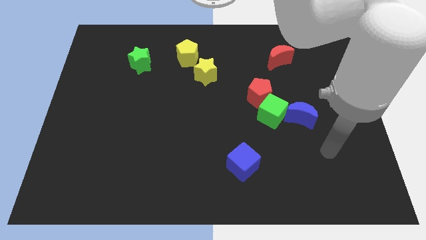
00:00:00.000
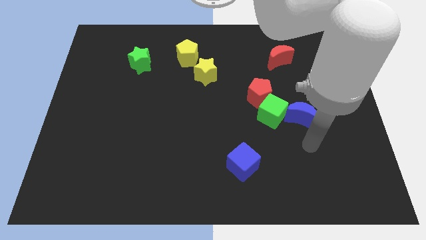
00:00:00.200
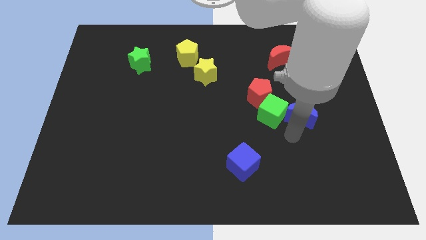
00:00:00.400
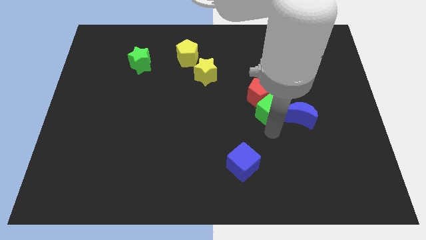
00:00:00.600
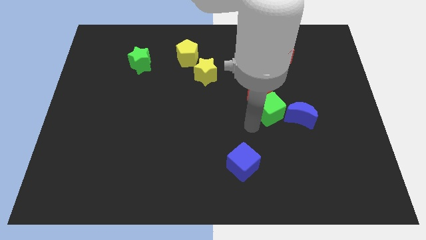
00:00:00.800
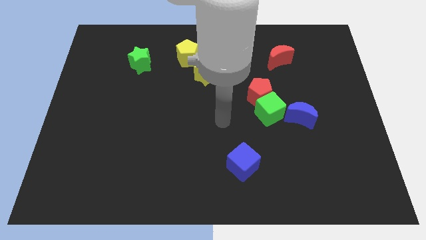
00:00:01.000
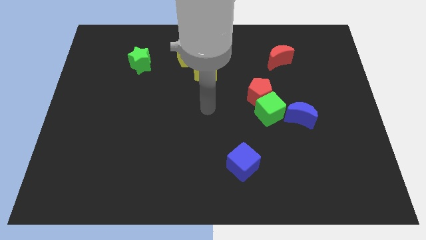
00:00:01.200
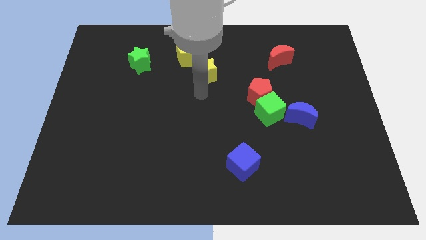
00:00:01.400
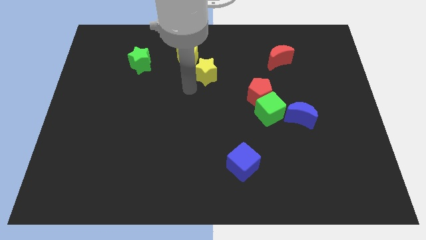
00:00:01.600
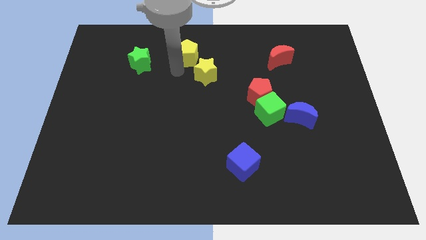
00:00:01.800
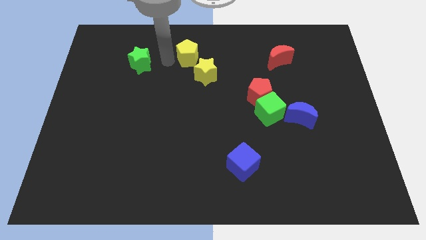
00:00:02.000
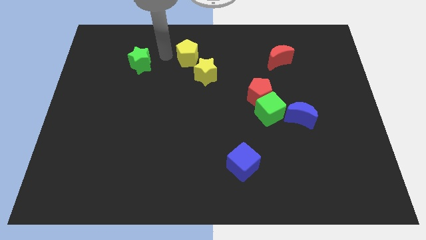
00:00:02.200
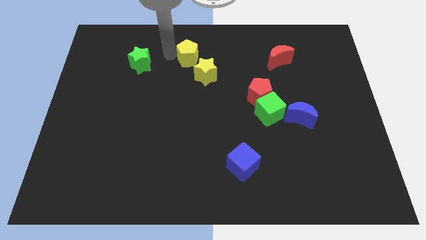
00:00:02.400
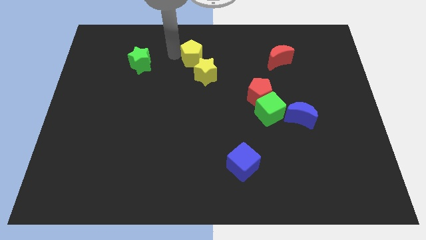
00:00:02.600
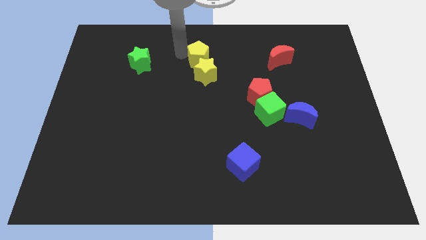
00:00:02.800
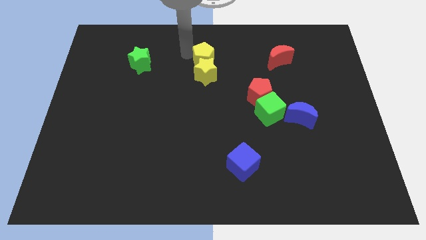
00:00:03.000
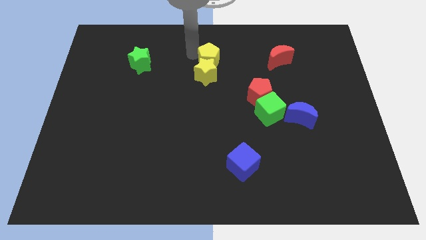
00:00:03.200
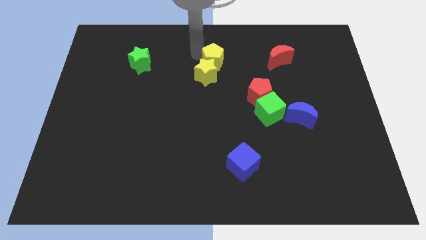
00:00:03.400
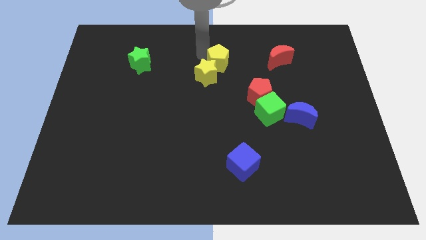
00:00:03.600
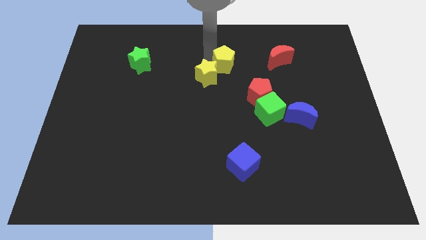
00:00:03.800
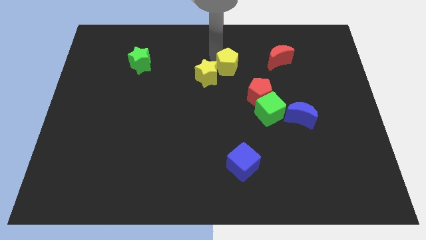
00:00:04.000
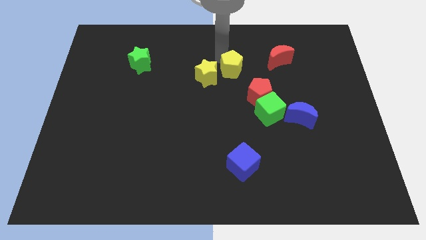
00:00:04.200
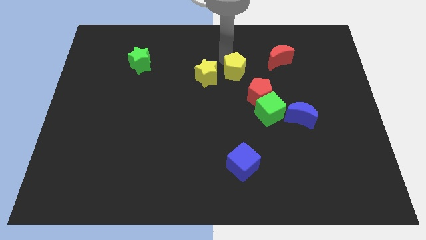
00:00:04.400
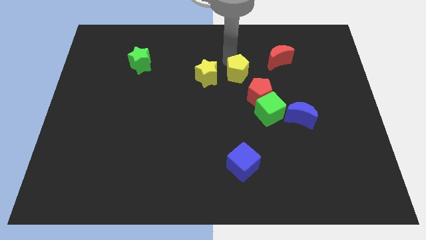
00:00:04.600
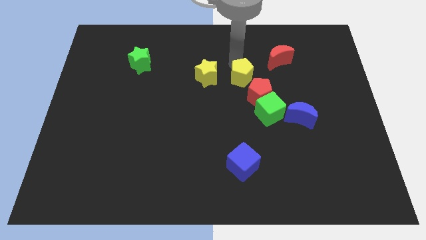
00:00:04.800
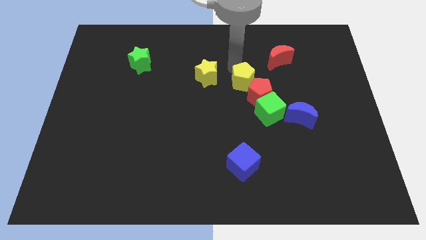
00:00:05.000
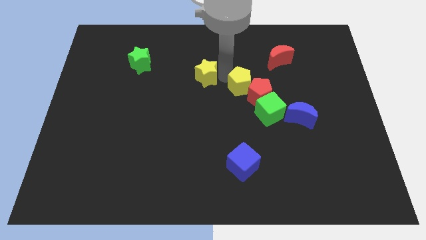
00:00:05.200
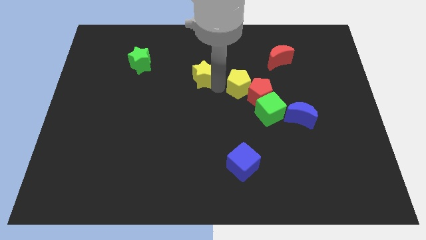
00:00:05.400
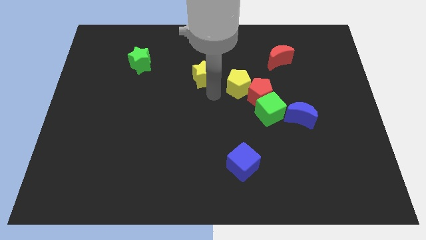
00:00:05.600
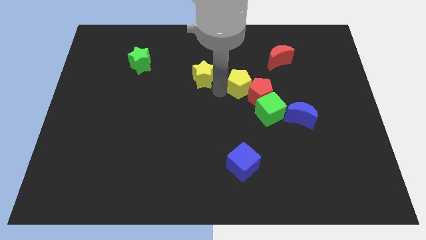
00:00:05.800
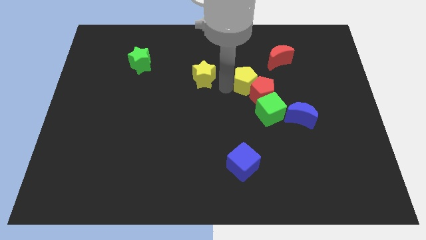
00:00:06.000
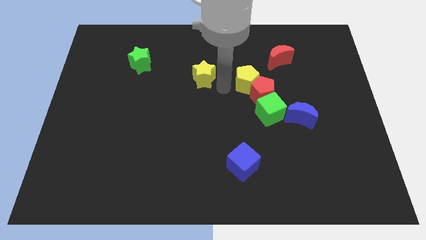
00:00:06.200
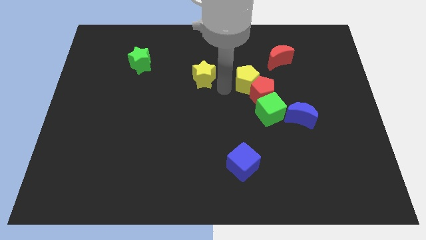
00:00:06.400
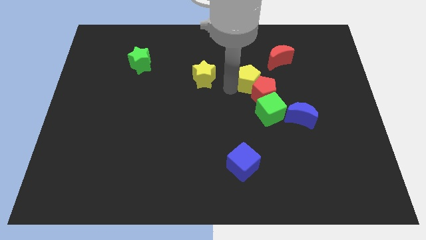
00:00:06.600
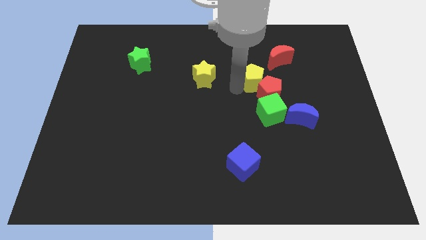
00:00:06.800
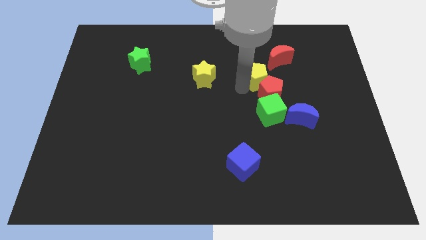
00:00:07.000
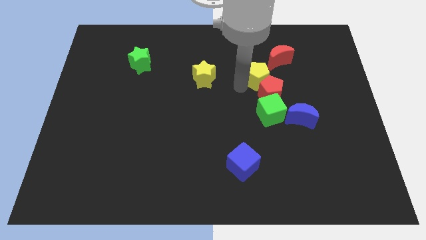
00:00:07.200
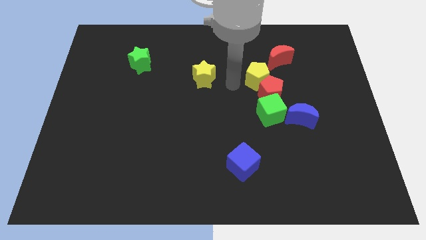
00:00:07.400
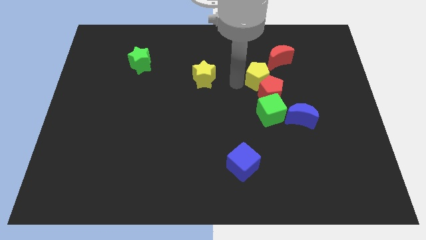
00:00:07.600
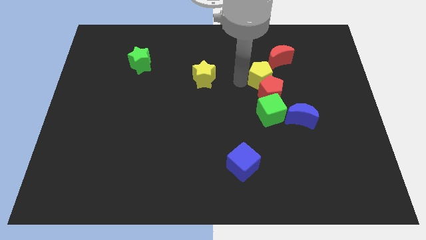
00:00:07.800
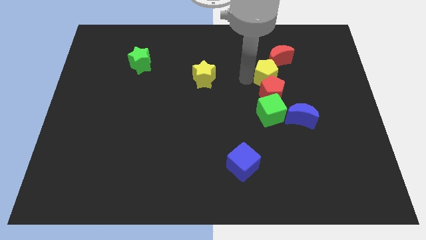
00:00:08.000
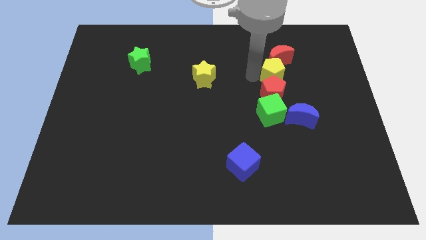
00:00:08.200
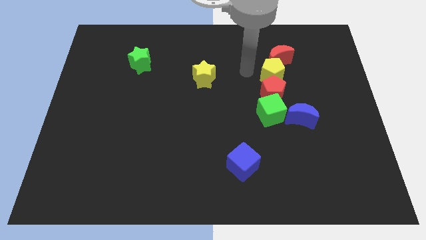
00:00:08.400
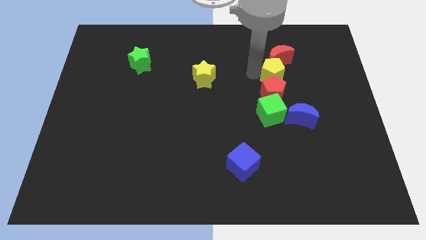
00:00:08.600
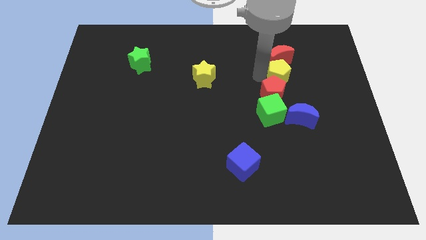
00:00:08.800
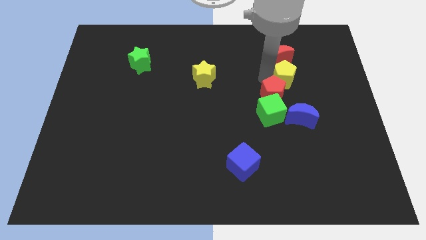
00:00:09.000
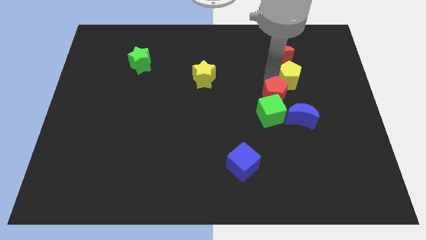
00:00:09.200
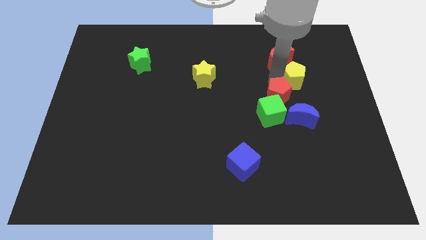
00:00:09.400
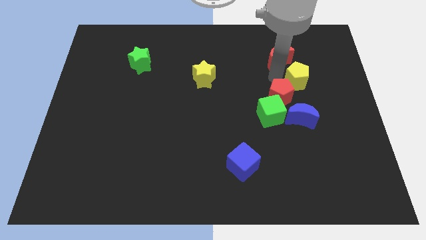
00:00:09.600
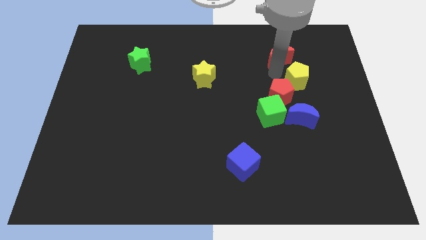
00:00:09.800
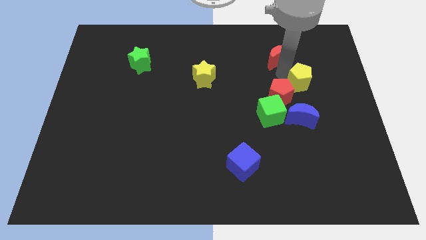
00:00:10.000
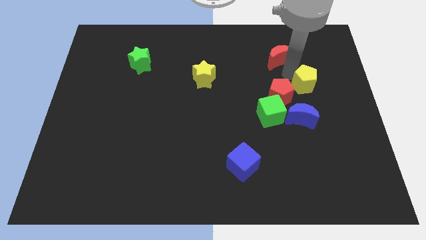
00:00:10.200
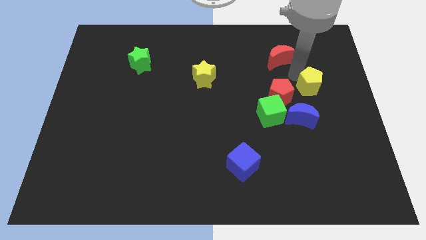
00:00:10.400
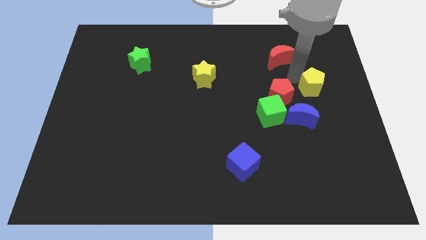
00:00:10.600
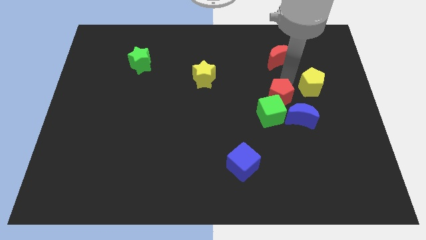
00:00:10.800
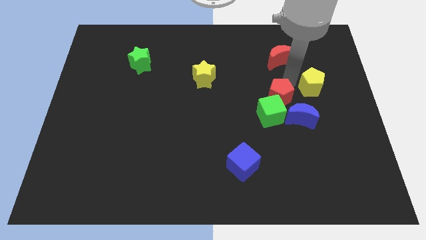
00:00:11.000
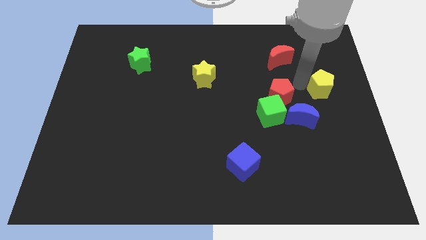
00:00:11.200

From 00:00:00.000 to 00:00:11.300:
put the yellow pentagon to the right side of the board

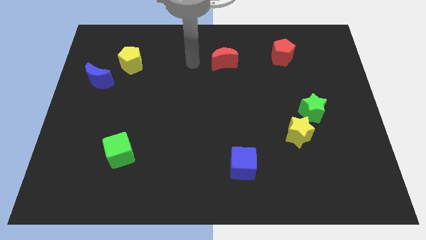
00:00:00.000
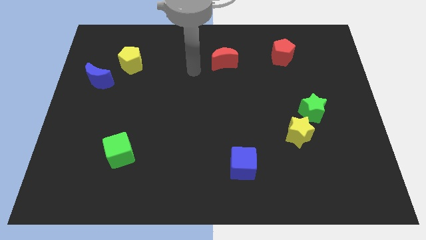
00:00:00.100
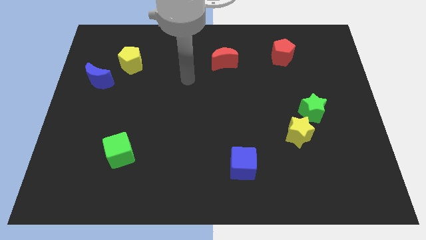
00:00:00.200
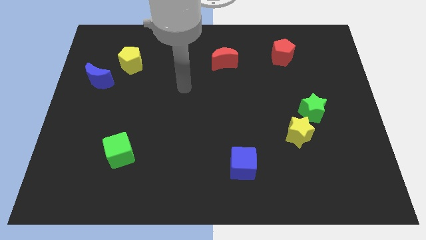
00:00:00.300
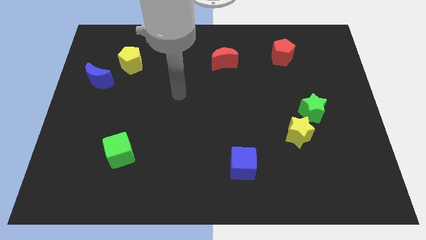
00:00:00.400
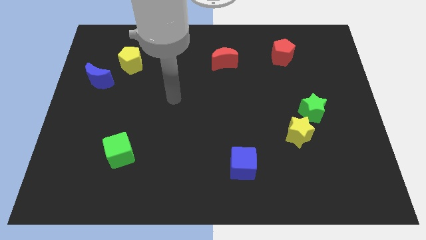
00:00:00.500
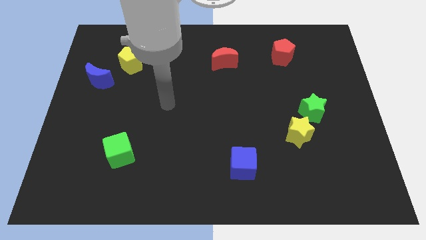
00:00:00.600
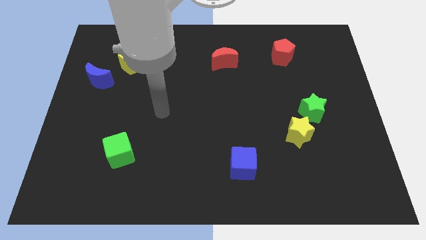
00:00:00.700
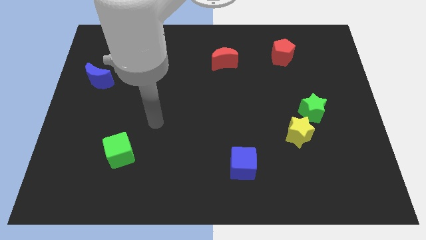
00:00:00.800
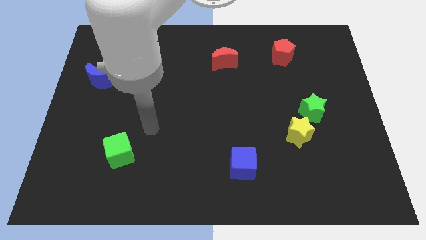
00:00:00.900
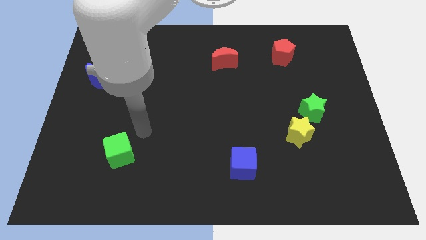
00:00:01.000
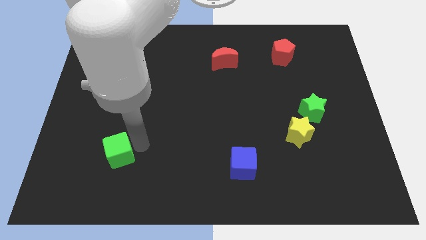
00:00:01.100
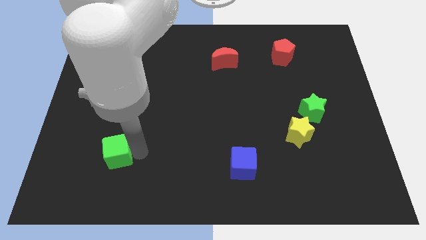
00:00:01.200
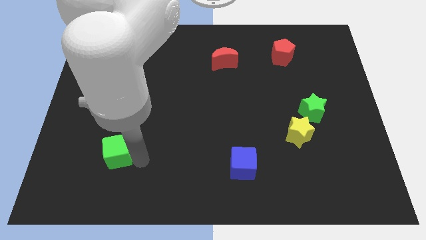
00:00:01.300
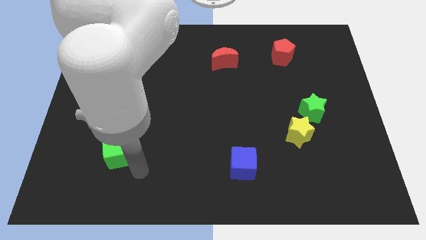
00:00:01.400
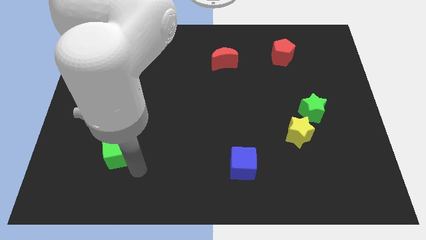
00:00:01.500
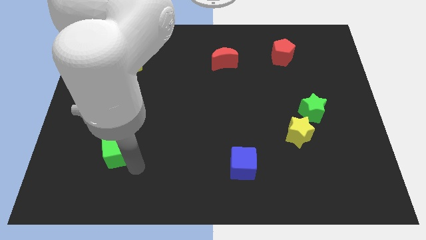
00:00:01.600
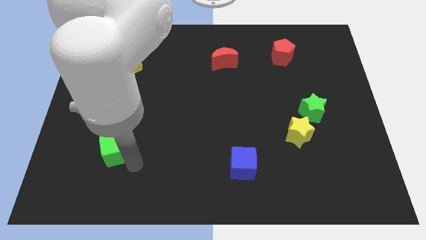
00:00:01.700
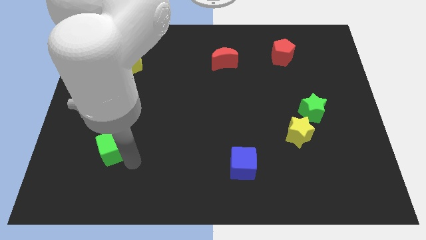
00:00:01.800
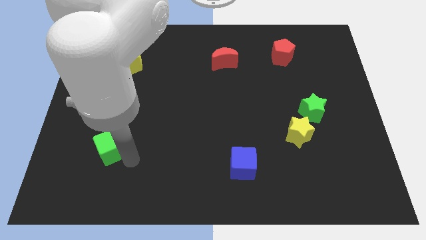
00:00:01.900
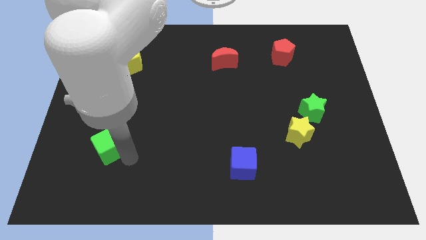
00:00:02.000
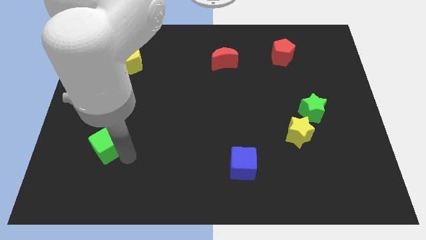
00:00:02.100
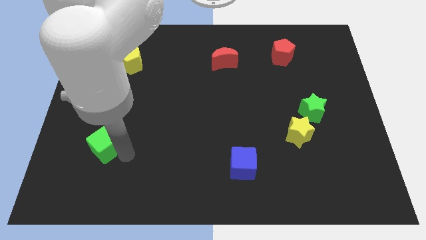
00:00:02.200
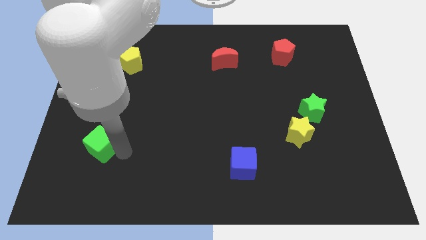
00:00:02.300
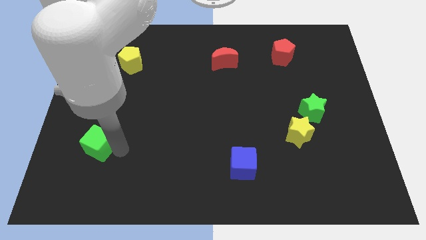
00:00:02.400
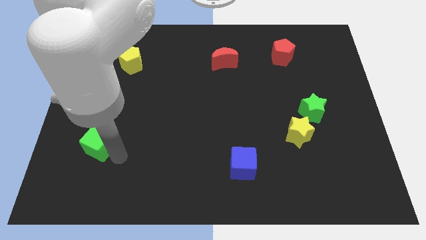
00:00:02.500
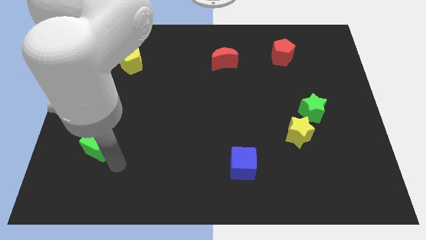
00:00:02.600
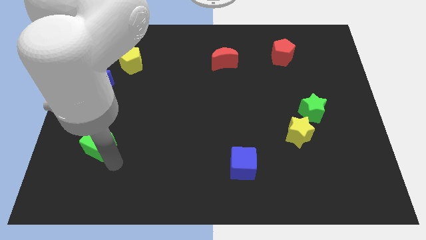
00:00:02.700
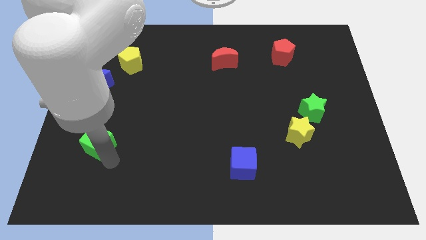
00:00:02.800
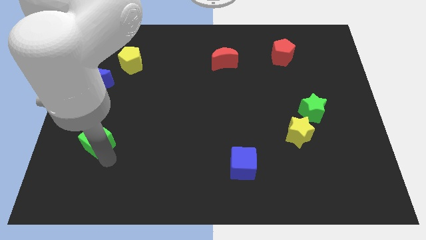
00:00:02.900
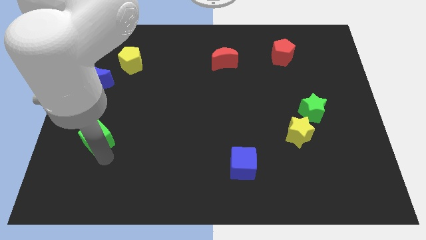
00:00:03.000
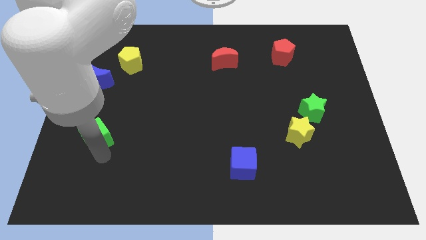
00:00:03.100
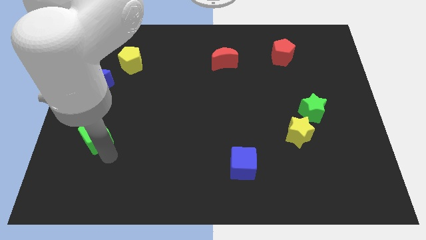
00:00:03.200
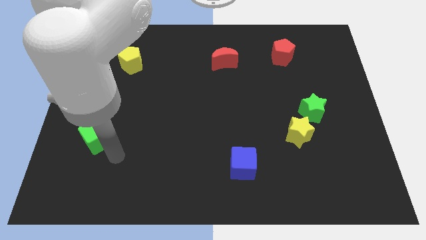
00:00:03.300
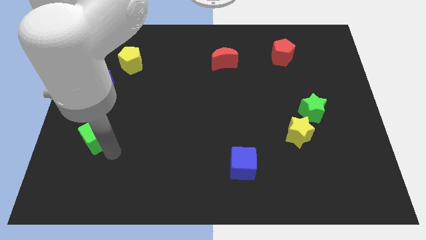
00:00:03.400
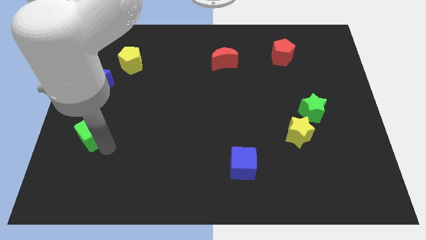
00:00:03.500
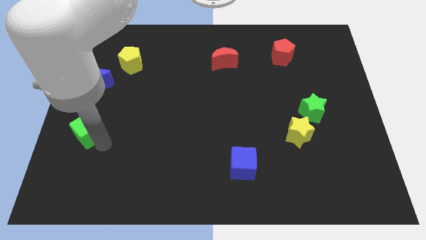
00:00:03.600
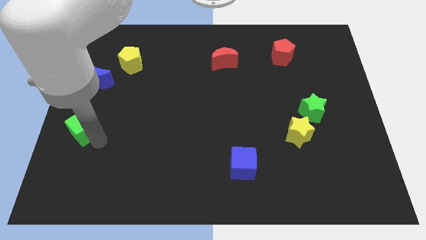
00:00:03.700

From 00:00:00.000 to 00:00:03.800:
put the green cube to the left side
